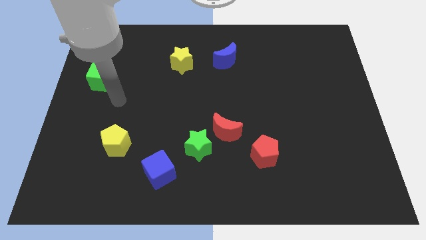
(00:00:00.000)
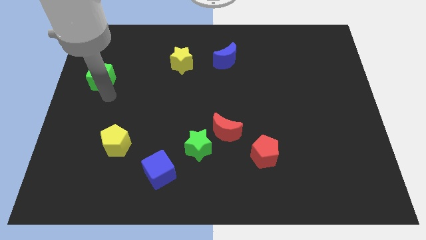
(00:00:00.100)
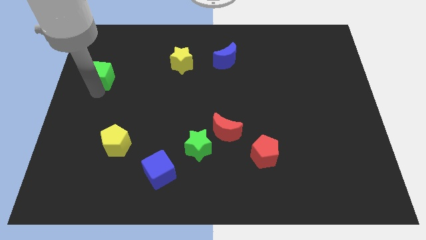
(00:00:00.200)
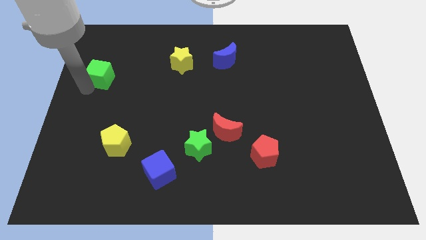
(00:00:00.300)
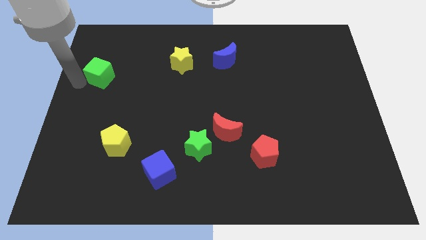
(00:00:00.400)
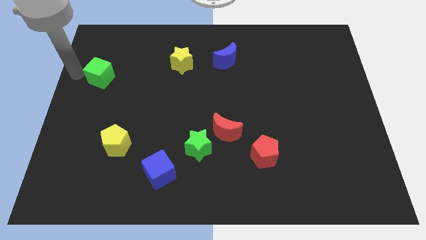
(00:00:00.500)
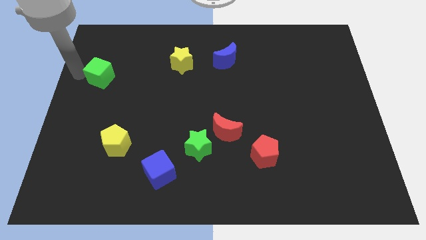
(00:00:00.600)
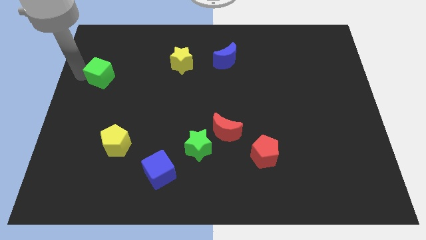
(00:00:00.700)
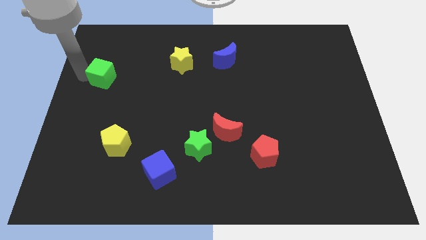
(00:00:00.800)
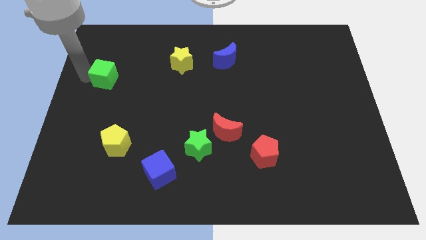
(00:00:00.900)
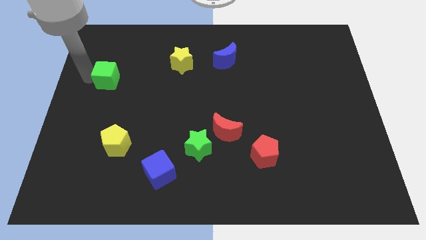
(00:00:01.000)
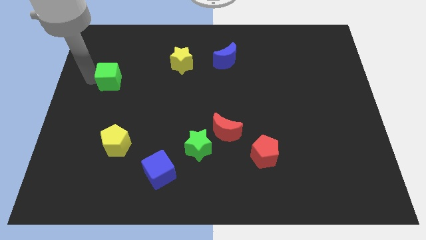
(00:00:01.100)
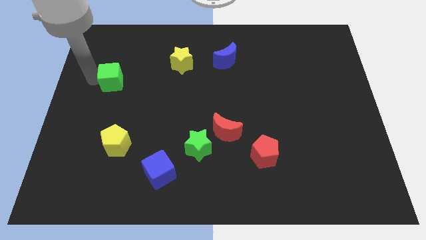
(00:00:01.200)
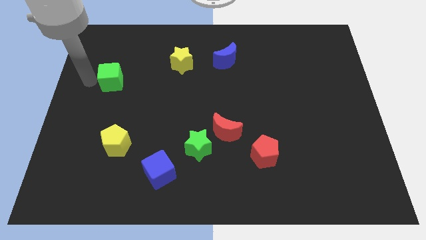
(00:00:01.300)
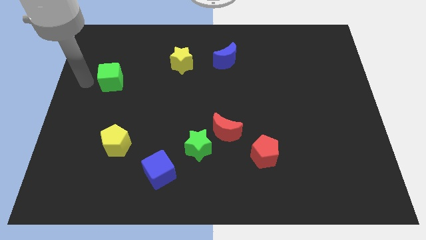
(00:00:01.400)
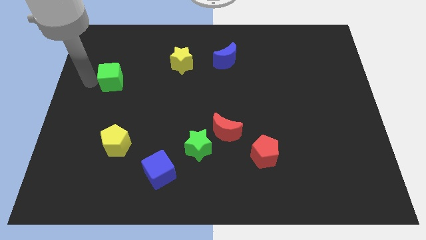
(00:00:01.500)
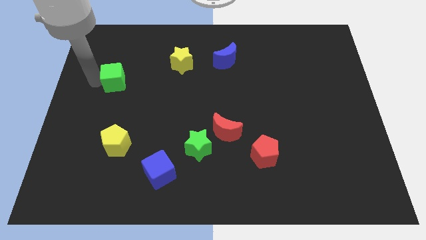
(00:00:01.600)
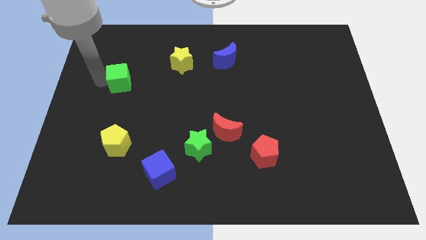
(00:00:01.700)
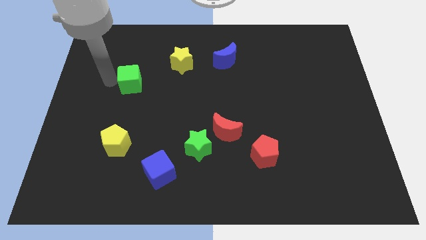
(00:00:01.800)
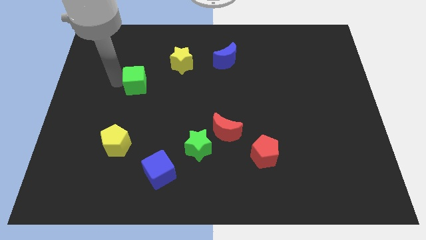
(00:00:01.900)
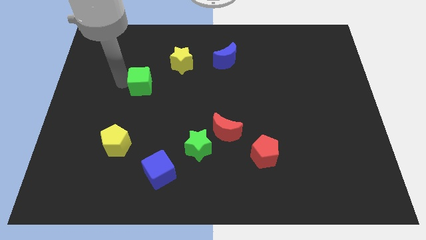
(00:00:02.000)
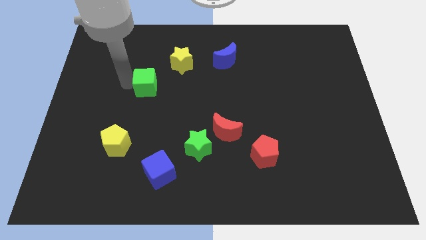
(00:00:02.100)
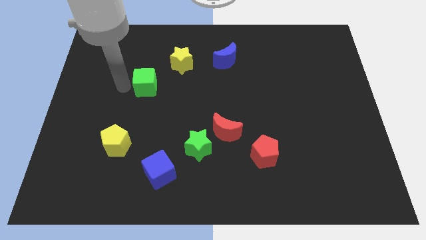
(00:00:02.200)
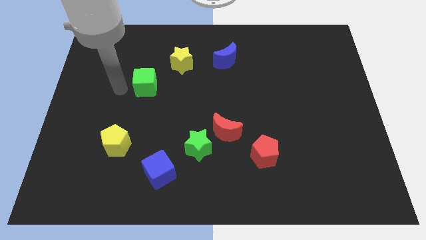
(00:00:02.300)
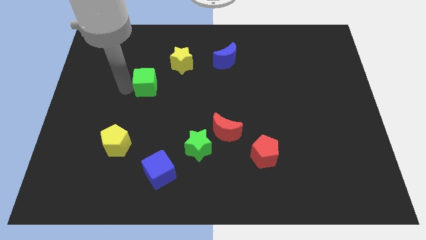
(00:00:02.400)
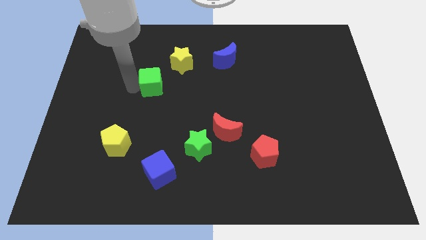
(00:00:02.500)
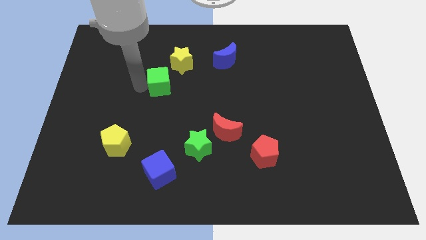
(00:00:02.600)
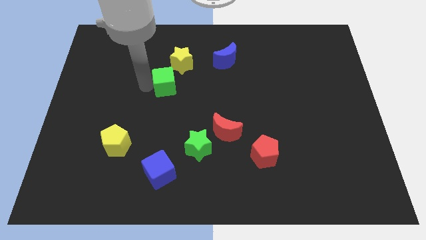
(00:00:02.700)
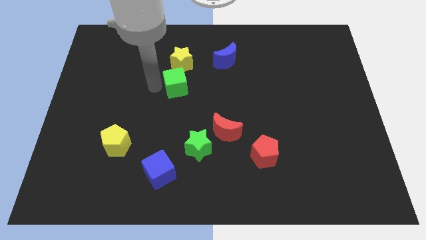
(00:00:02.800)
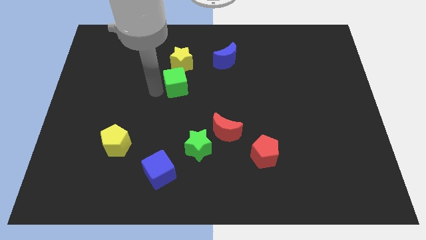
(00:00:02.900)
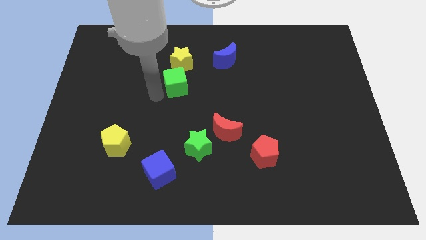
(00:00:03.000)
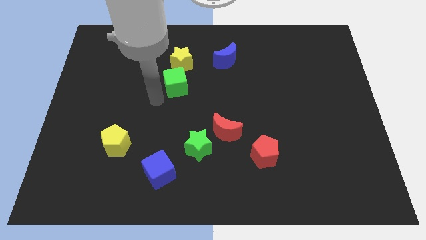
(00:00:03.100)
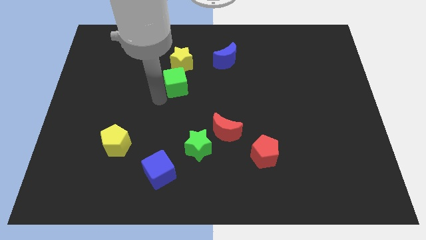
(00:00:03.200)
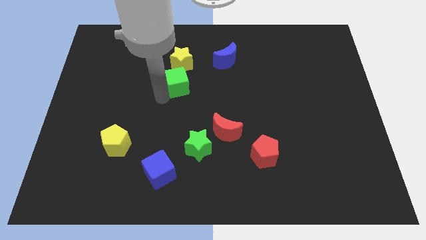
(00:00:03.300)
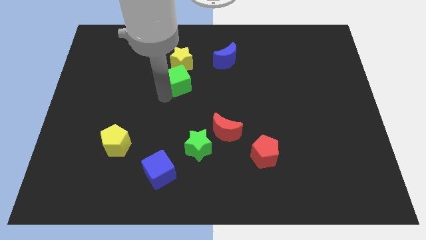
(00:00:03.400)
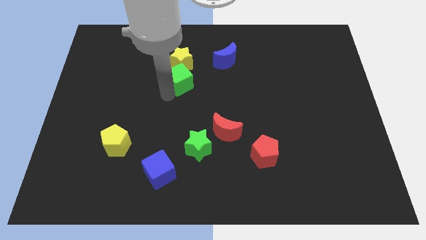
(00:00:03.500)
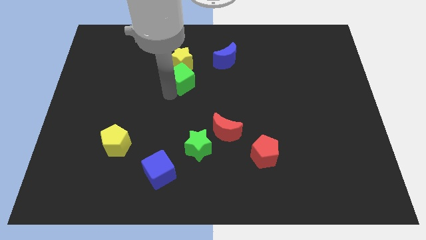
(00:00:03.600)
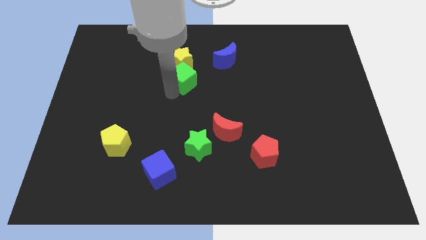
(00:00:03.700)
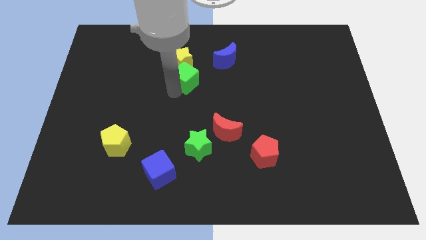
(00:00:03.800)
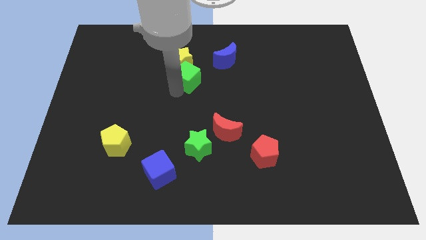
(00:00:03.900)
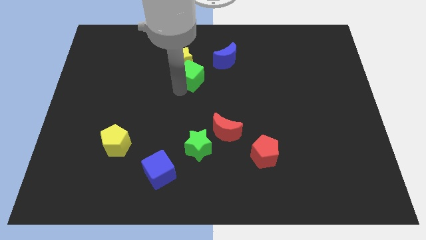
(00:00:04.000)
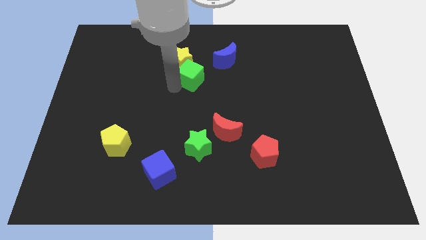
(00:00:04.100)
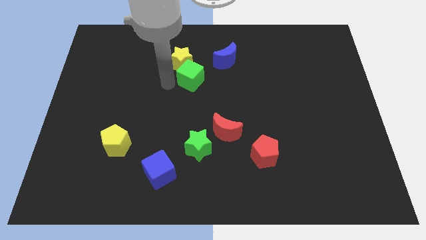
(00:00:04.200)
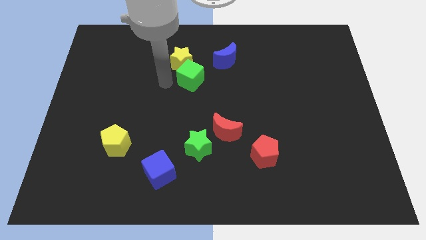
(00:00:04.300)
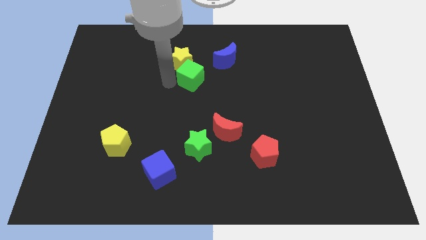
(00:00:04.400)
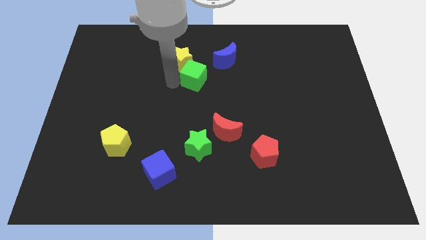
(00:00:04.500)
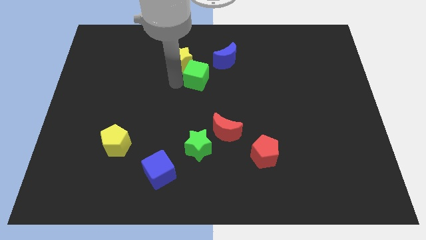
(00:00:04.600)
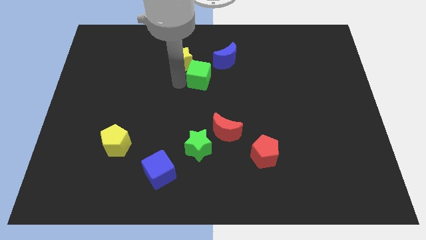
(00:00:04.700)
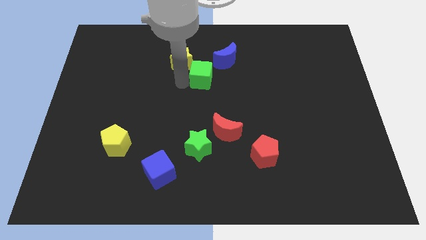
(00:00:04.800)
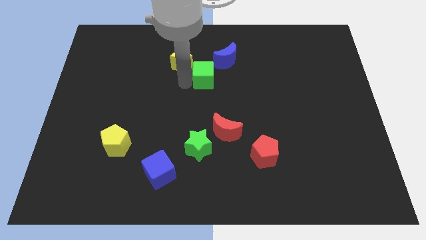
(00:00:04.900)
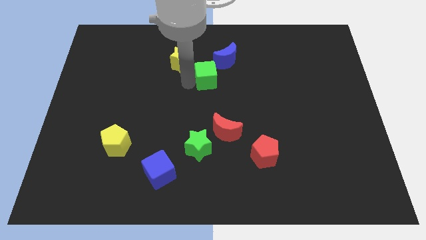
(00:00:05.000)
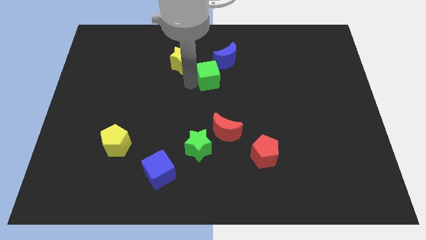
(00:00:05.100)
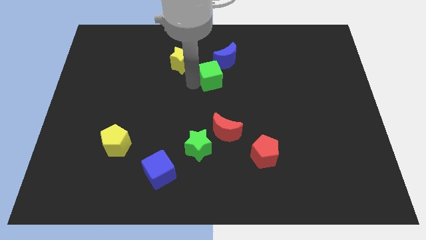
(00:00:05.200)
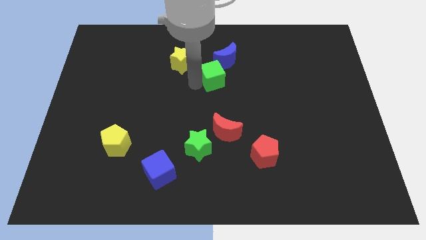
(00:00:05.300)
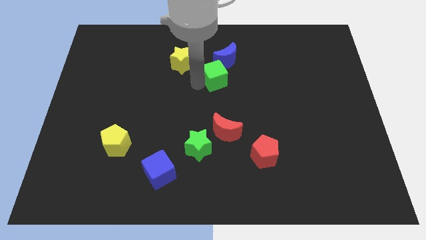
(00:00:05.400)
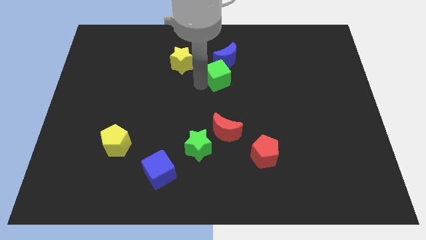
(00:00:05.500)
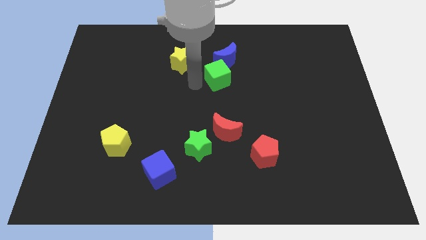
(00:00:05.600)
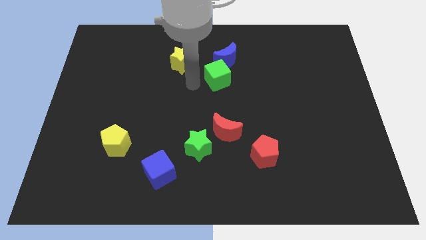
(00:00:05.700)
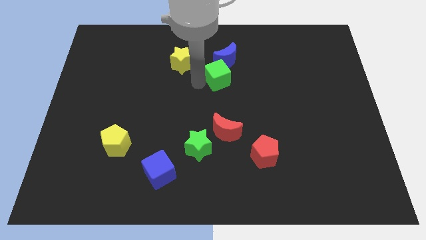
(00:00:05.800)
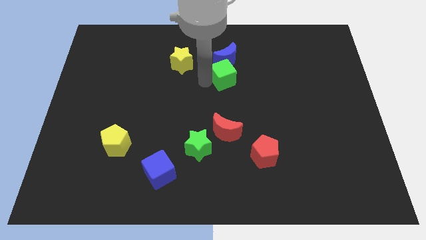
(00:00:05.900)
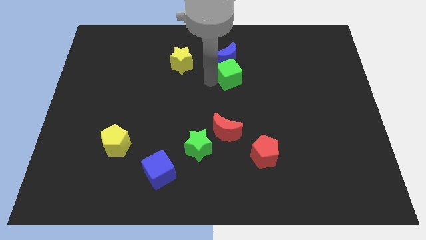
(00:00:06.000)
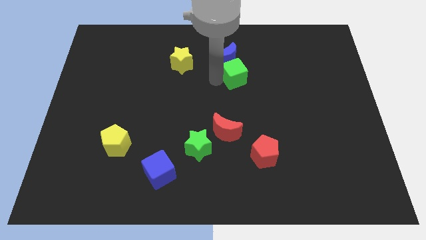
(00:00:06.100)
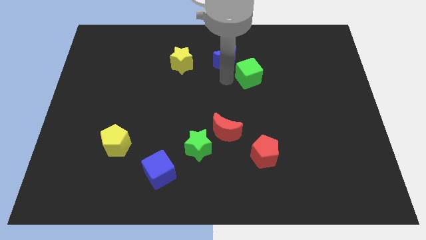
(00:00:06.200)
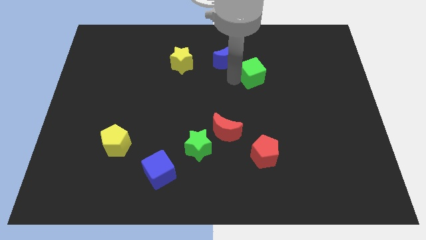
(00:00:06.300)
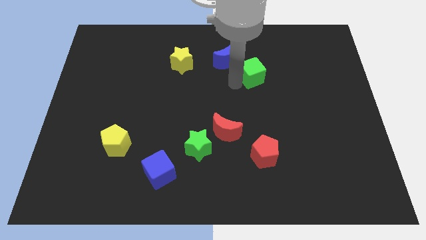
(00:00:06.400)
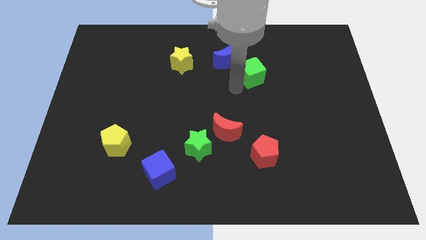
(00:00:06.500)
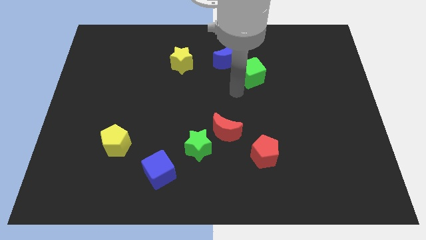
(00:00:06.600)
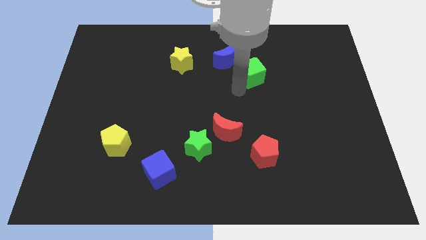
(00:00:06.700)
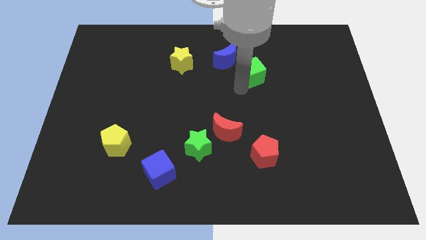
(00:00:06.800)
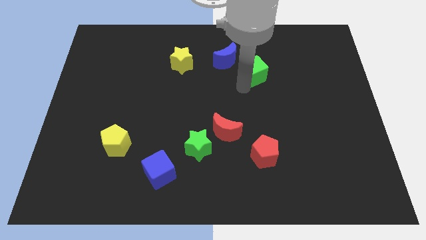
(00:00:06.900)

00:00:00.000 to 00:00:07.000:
move the green cube to the right side of the blue moon
